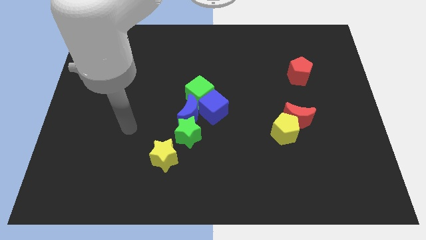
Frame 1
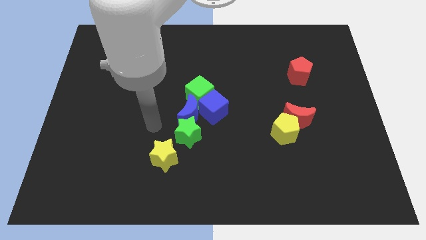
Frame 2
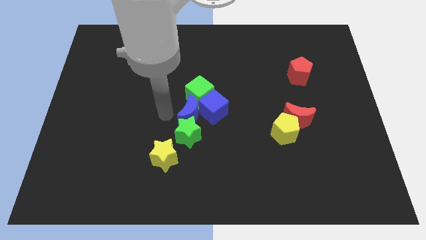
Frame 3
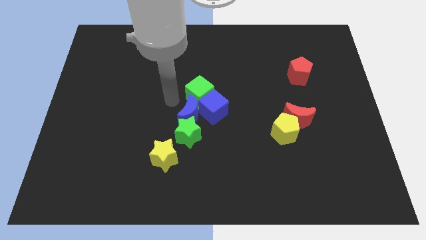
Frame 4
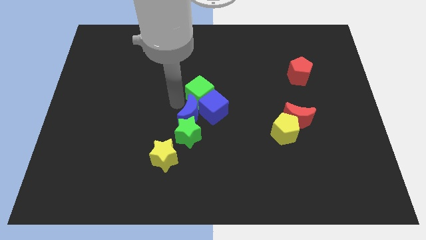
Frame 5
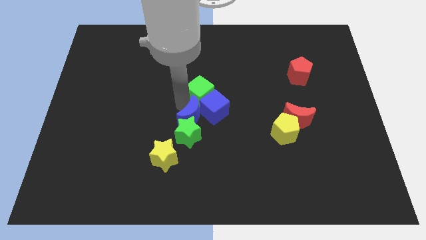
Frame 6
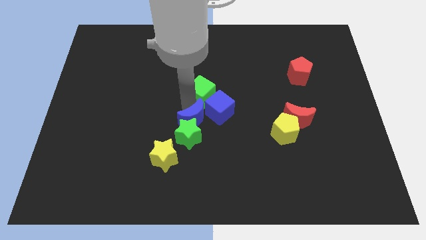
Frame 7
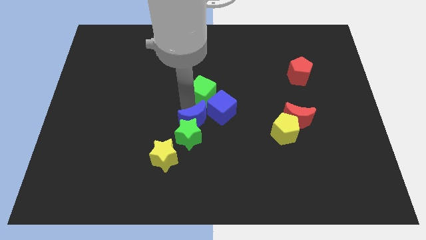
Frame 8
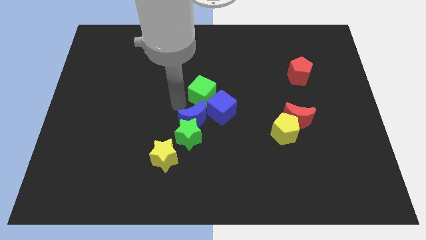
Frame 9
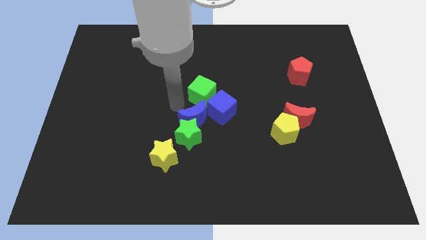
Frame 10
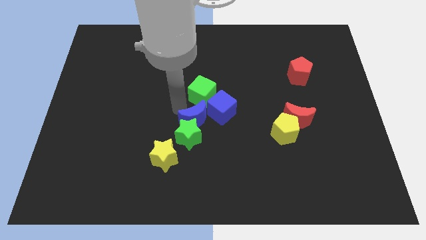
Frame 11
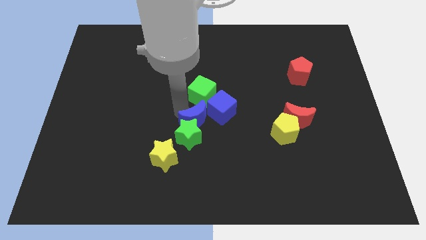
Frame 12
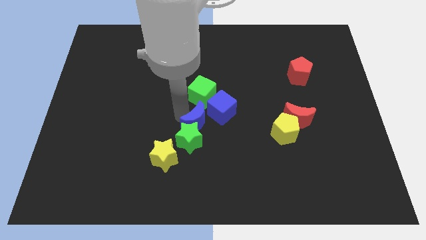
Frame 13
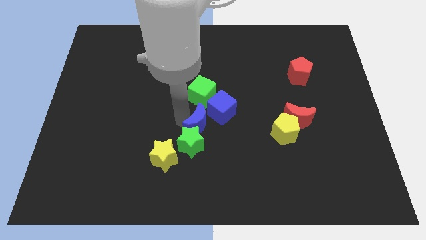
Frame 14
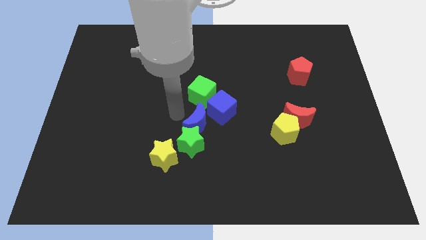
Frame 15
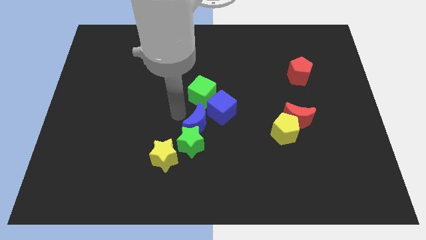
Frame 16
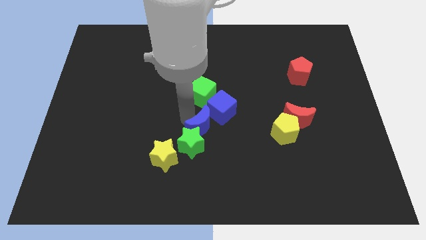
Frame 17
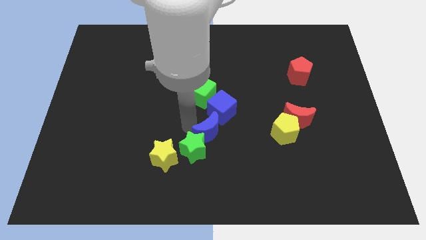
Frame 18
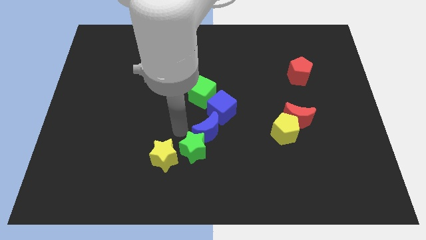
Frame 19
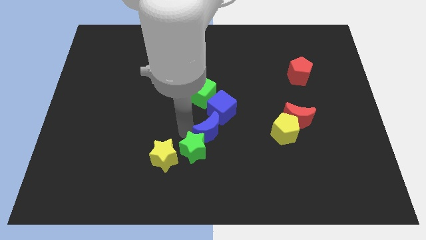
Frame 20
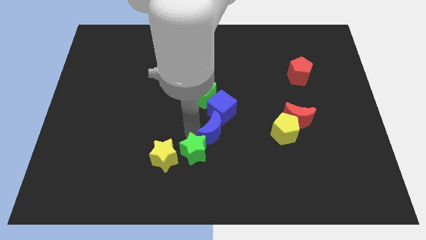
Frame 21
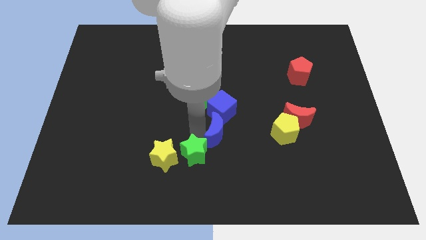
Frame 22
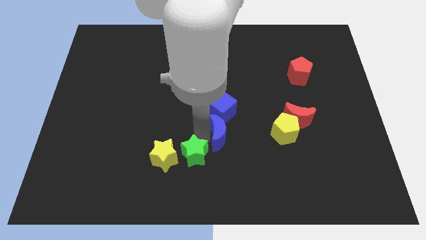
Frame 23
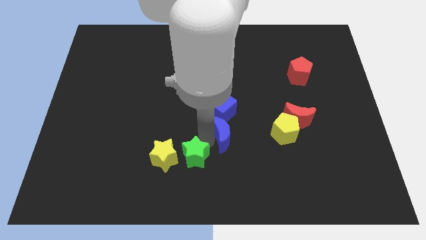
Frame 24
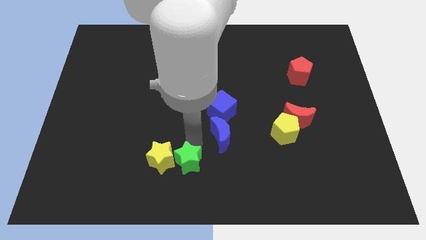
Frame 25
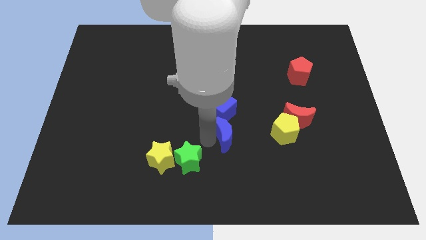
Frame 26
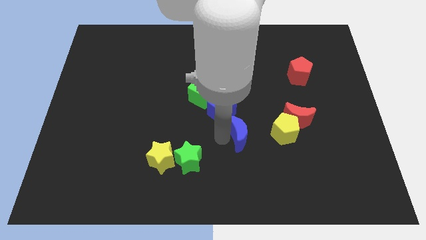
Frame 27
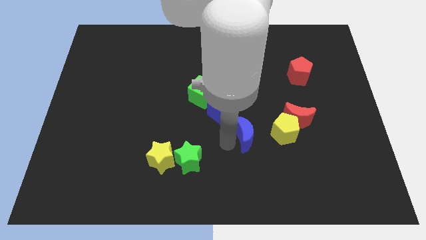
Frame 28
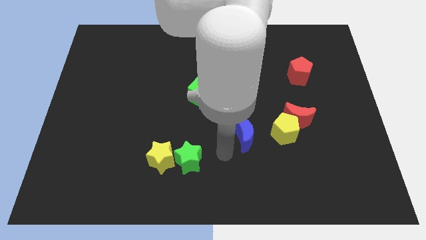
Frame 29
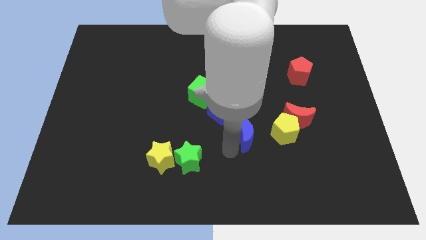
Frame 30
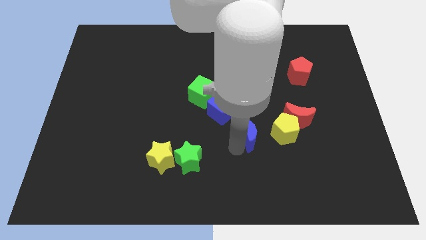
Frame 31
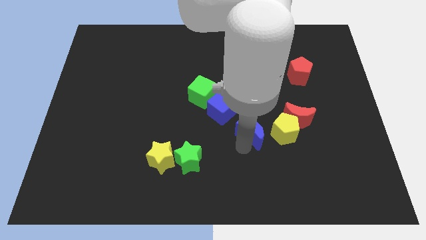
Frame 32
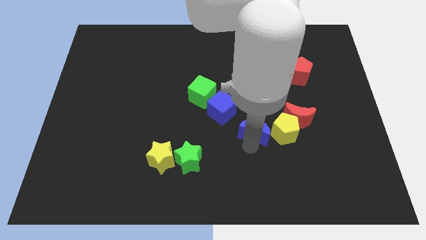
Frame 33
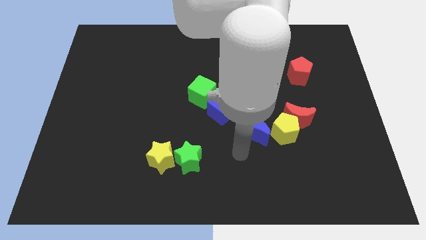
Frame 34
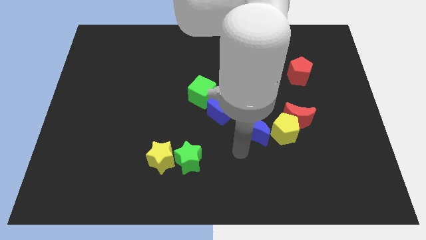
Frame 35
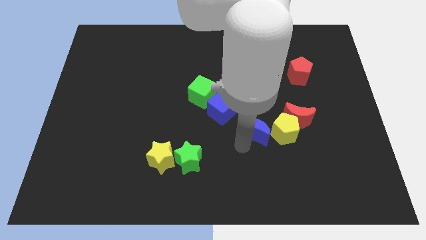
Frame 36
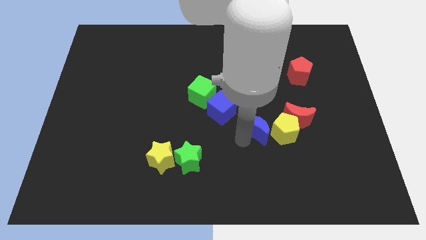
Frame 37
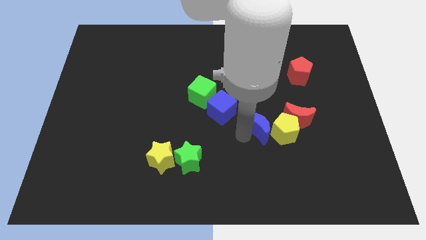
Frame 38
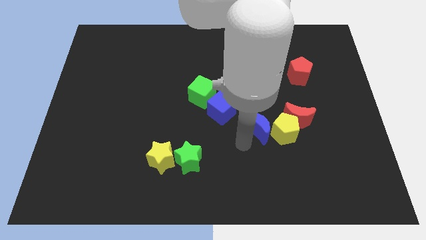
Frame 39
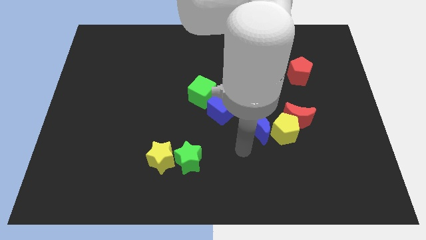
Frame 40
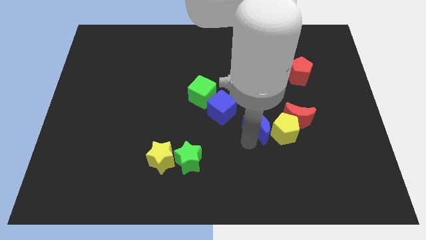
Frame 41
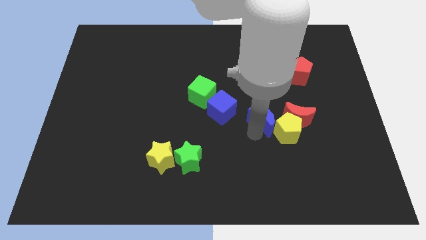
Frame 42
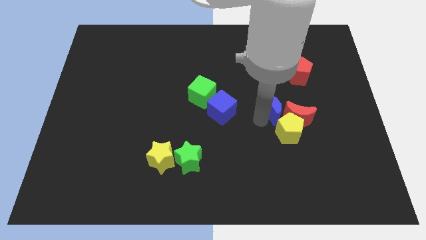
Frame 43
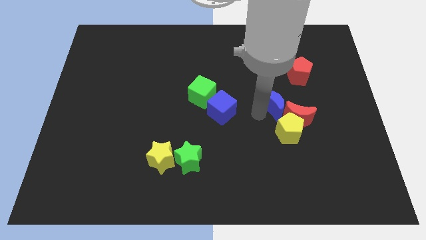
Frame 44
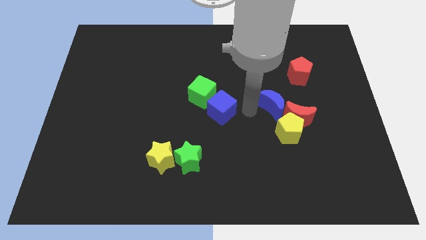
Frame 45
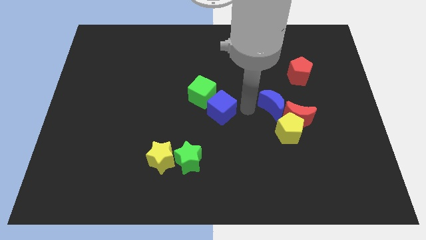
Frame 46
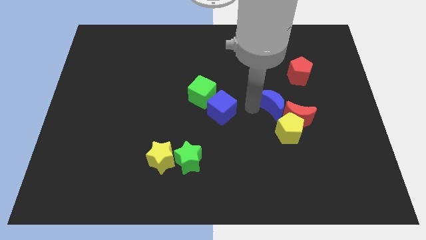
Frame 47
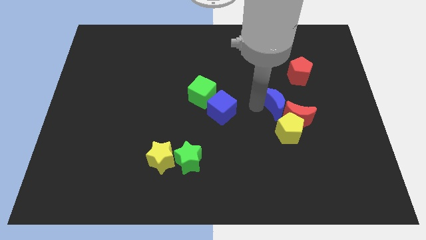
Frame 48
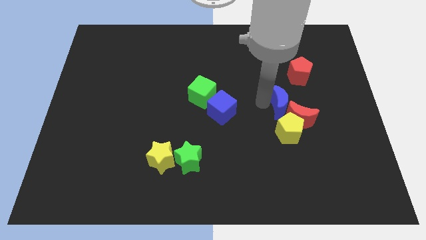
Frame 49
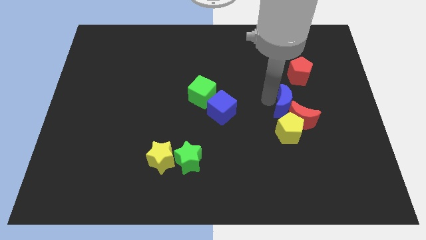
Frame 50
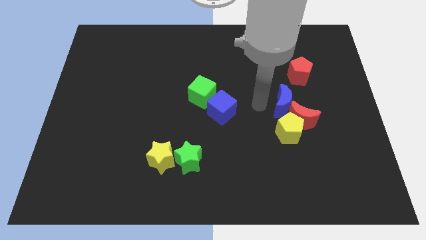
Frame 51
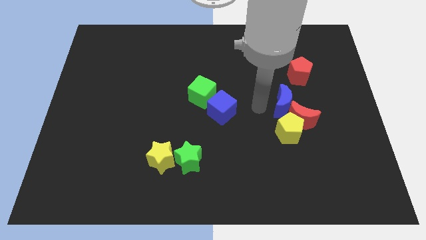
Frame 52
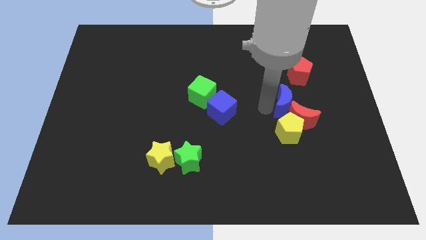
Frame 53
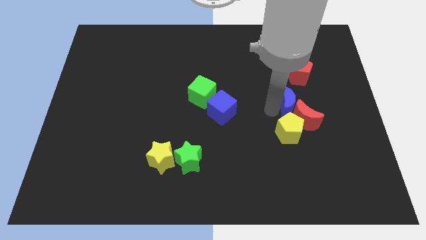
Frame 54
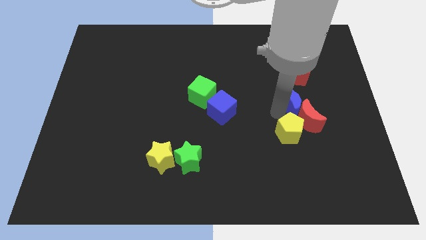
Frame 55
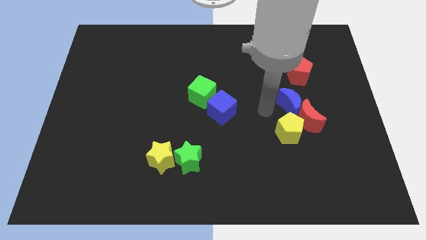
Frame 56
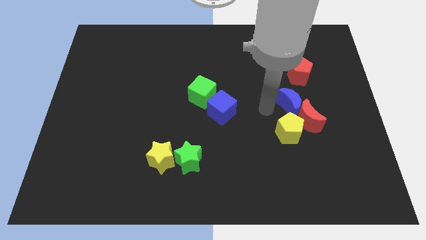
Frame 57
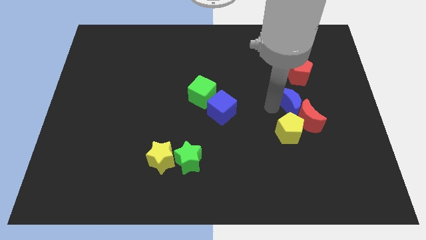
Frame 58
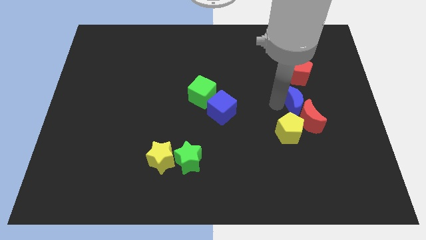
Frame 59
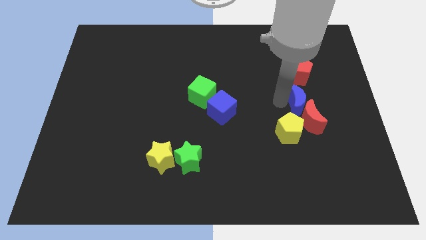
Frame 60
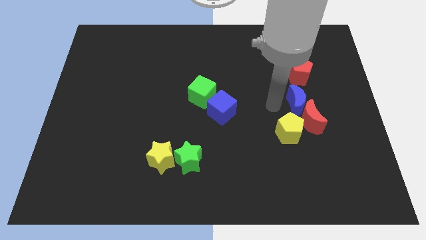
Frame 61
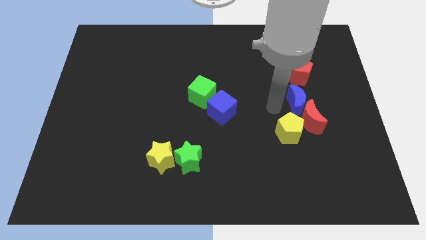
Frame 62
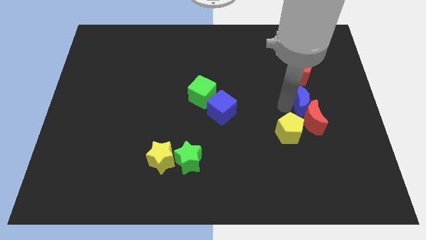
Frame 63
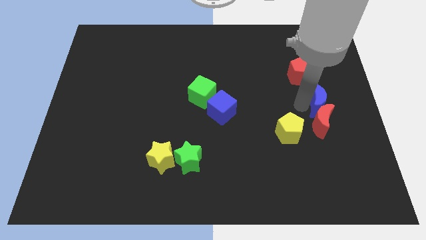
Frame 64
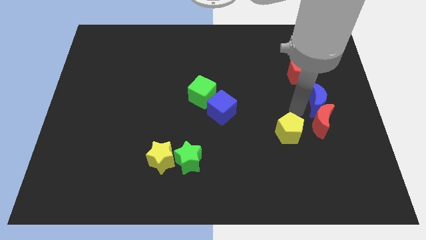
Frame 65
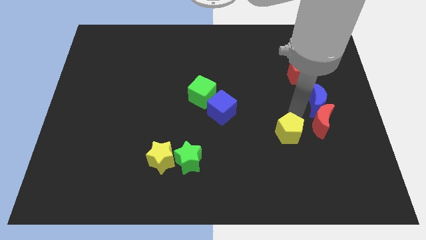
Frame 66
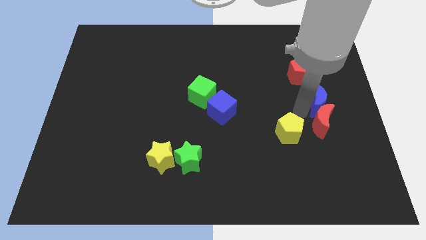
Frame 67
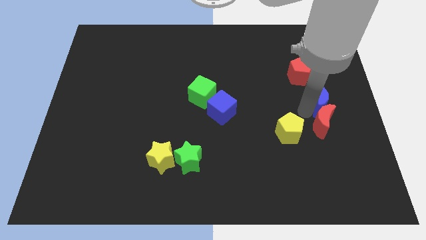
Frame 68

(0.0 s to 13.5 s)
move the blue moon to the right side of the board
